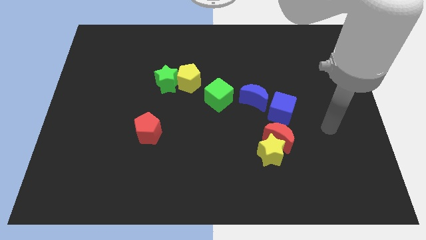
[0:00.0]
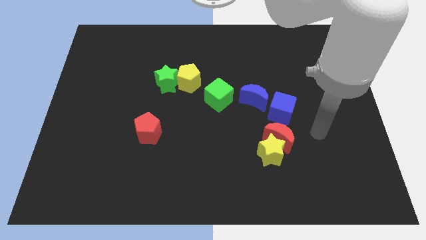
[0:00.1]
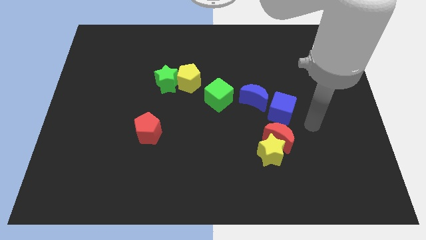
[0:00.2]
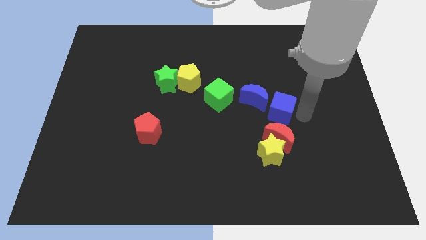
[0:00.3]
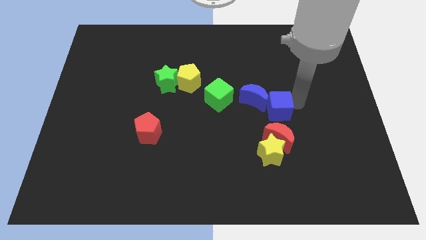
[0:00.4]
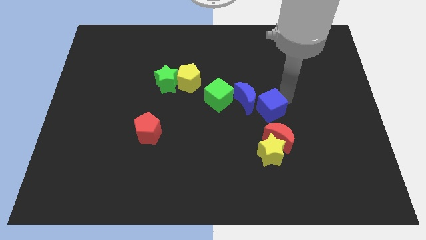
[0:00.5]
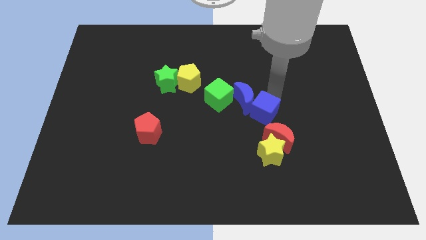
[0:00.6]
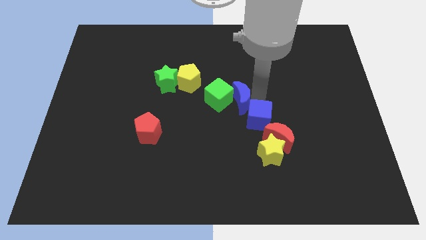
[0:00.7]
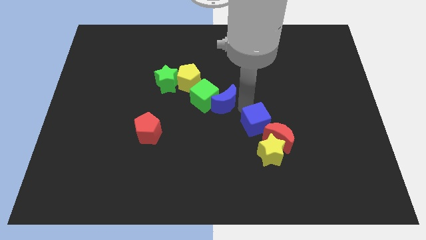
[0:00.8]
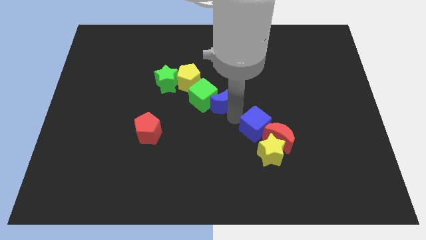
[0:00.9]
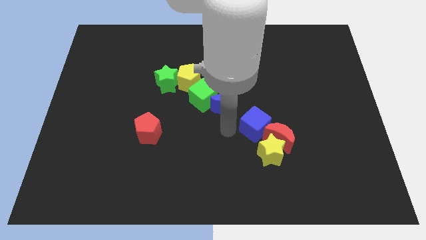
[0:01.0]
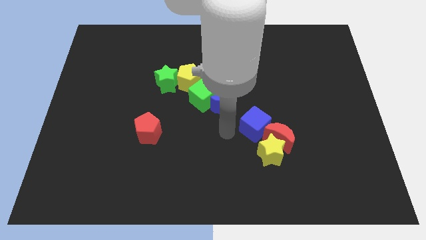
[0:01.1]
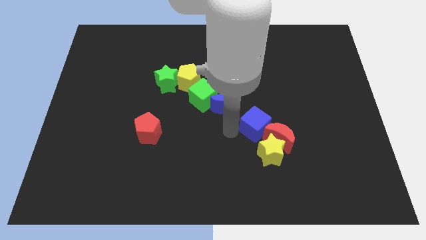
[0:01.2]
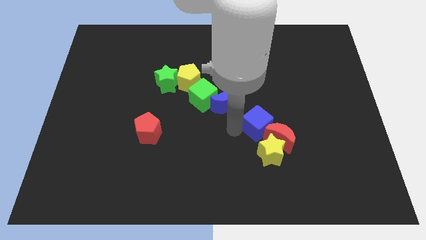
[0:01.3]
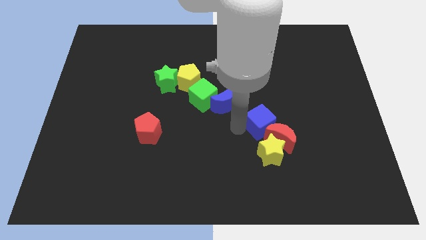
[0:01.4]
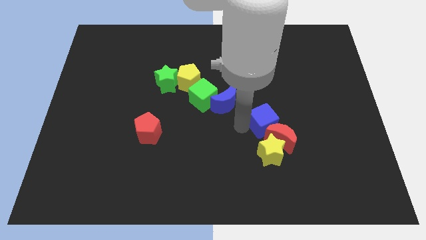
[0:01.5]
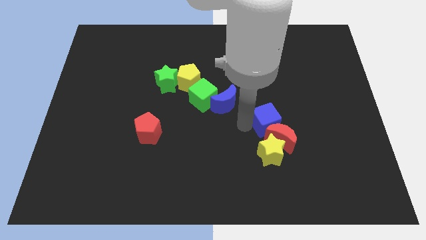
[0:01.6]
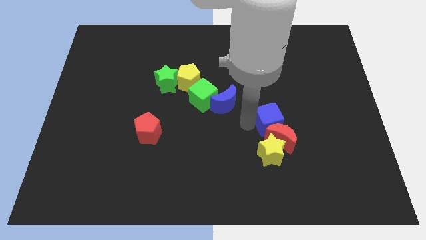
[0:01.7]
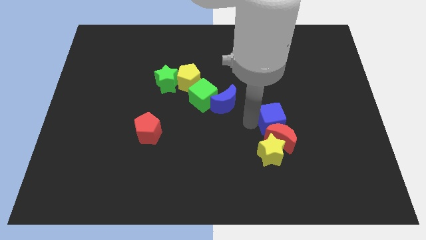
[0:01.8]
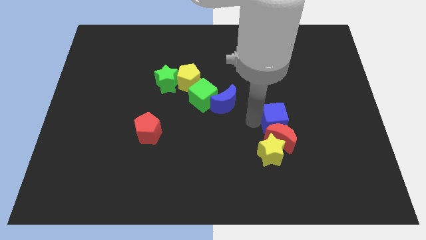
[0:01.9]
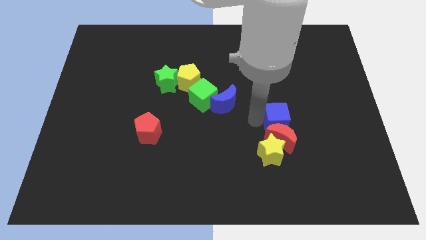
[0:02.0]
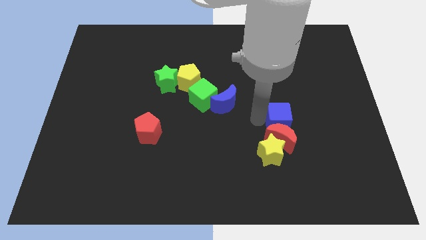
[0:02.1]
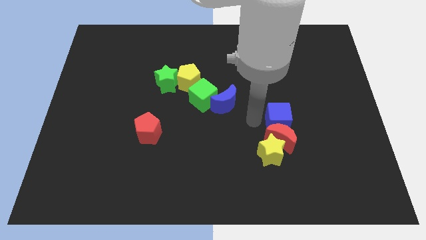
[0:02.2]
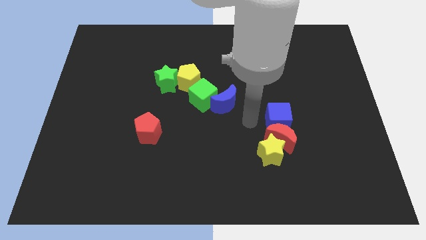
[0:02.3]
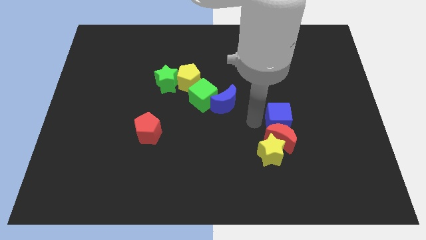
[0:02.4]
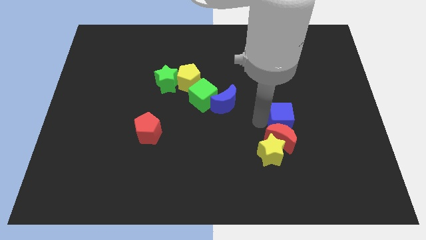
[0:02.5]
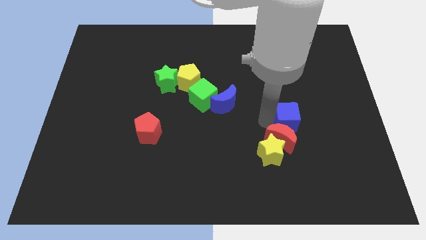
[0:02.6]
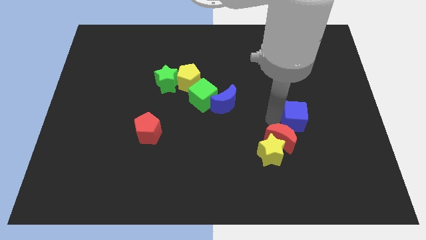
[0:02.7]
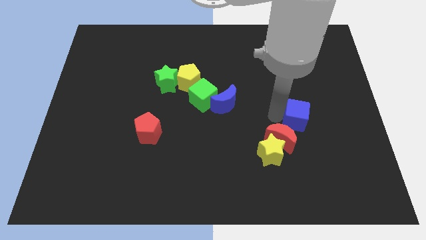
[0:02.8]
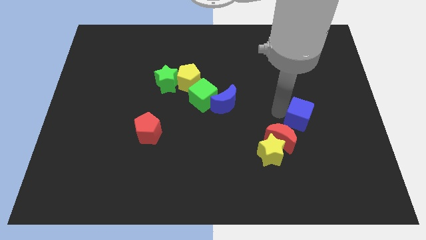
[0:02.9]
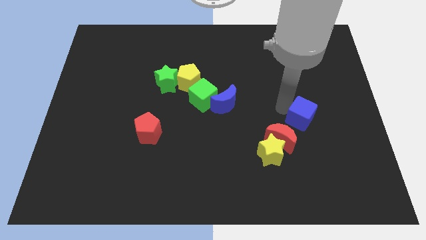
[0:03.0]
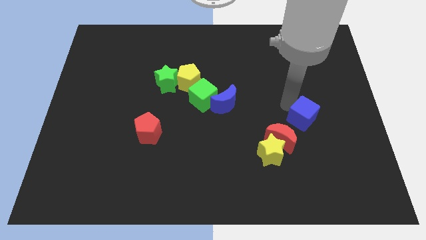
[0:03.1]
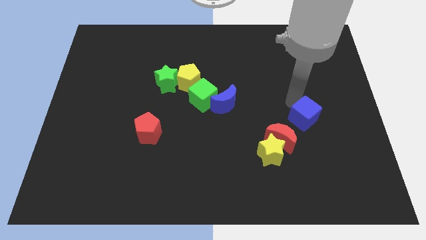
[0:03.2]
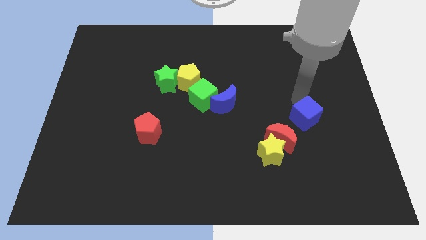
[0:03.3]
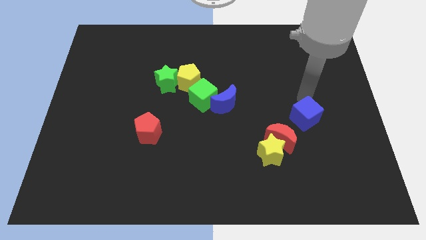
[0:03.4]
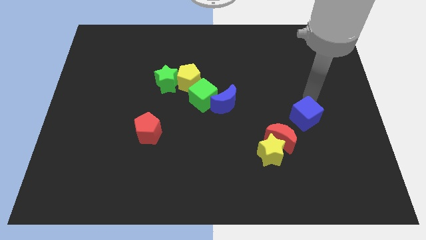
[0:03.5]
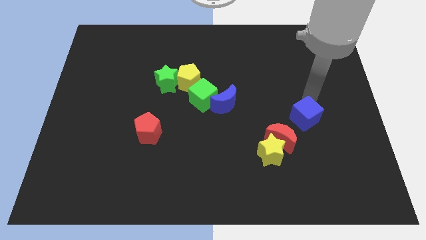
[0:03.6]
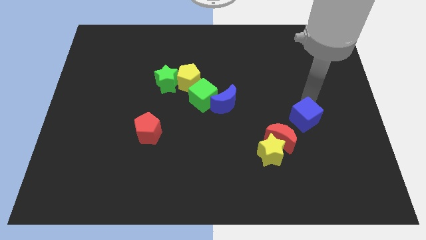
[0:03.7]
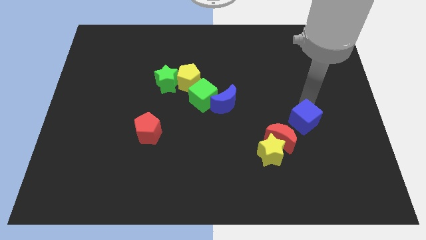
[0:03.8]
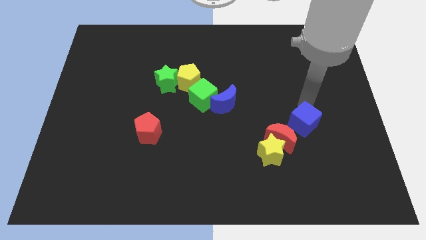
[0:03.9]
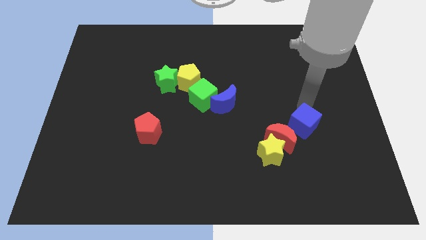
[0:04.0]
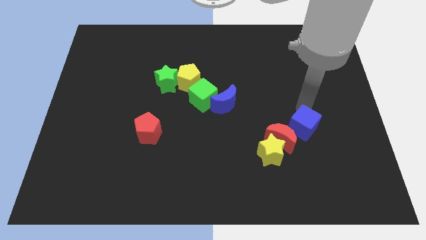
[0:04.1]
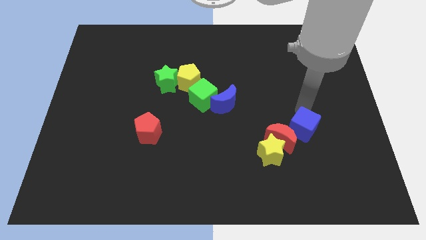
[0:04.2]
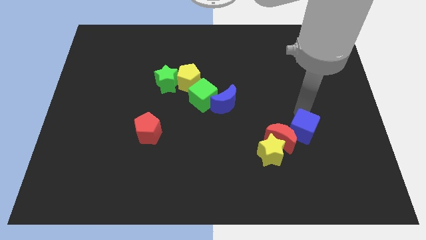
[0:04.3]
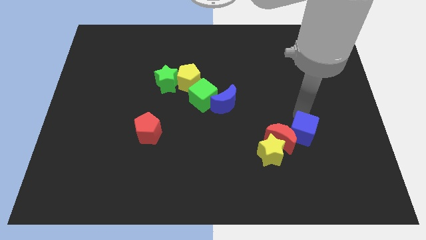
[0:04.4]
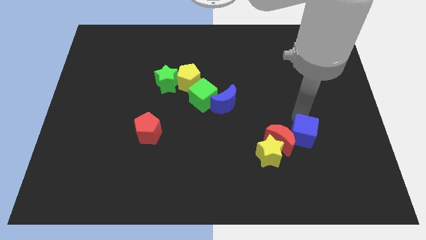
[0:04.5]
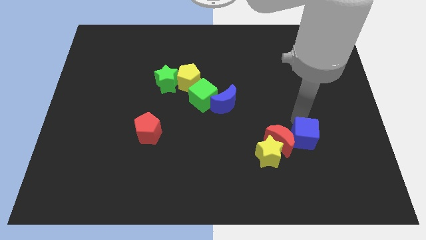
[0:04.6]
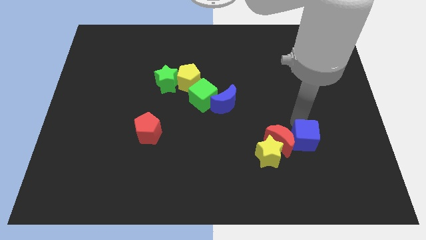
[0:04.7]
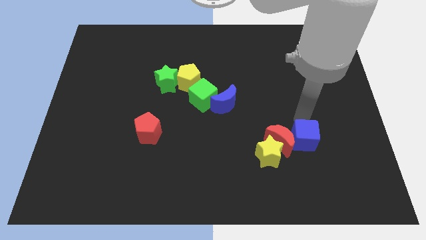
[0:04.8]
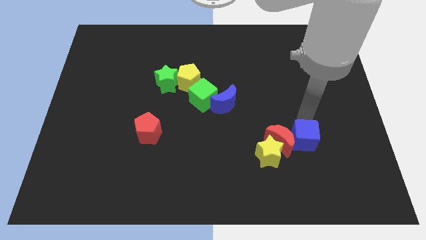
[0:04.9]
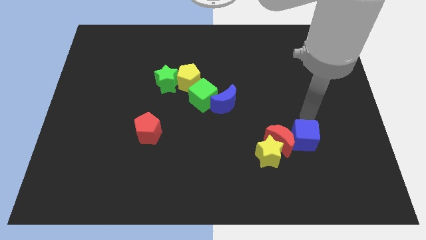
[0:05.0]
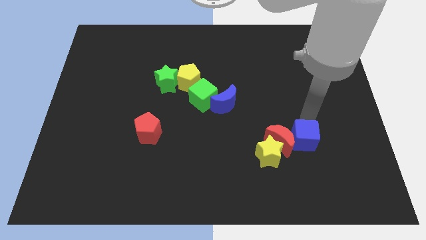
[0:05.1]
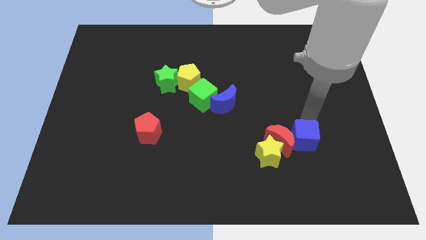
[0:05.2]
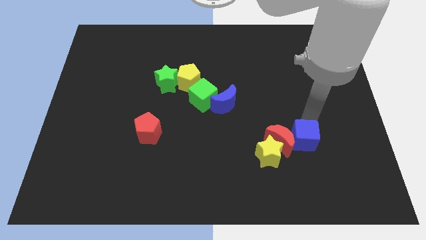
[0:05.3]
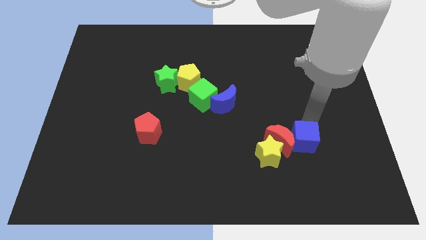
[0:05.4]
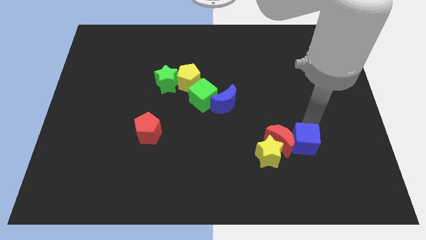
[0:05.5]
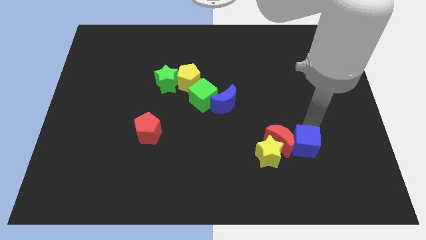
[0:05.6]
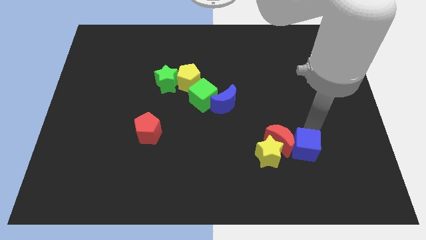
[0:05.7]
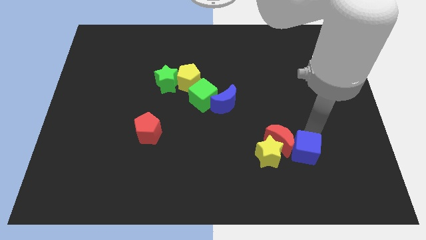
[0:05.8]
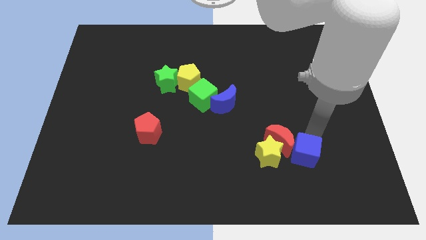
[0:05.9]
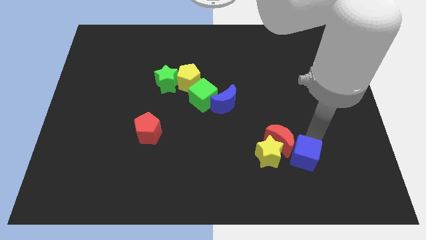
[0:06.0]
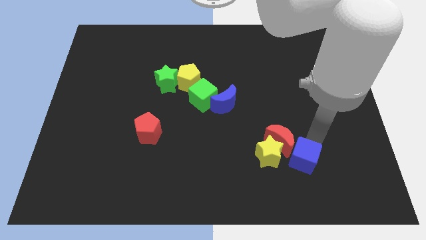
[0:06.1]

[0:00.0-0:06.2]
move the blue cube to the bottom right side of the yellow star

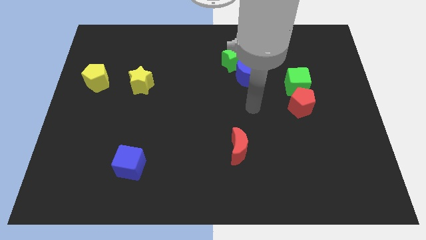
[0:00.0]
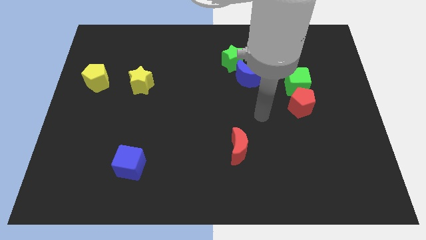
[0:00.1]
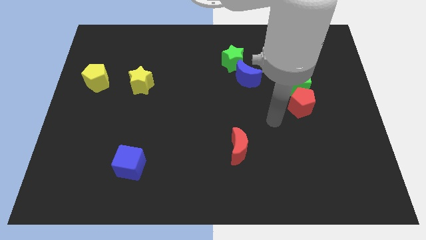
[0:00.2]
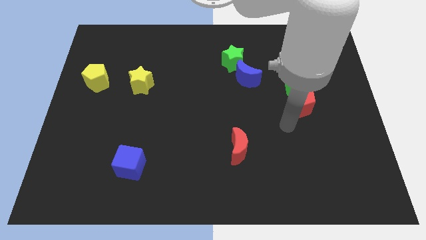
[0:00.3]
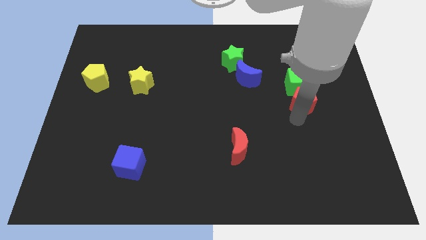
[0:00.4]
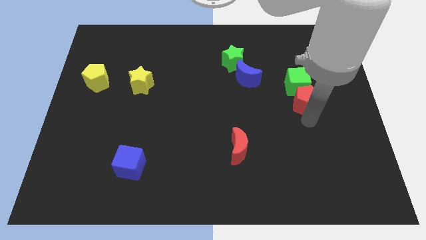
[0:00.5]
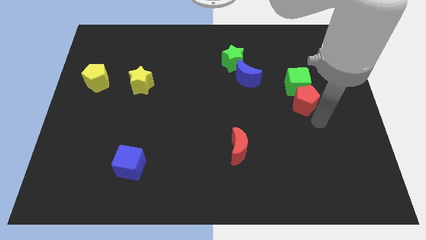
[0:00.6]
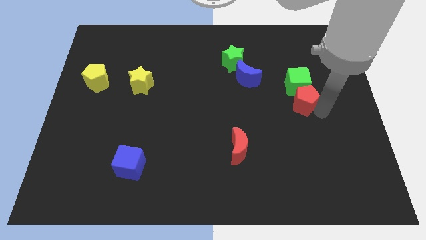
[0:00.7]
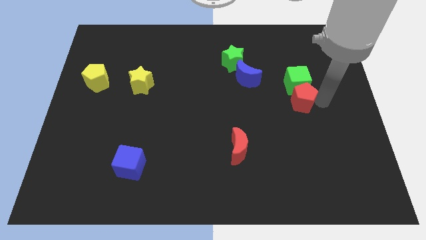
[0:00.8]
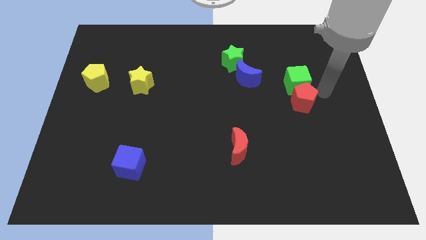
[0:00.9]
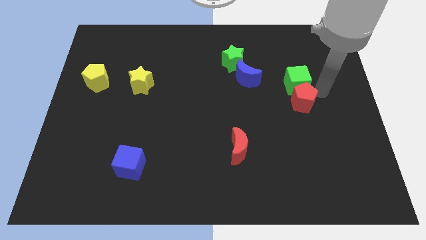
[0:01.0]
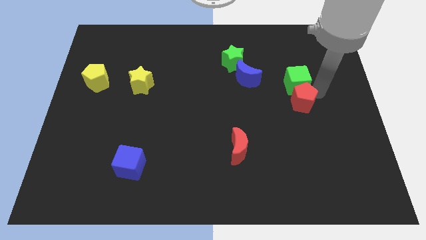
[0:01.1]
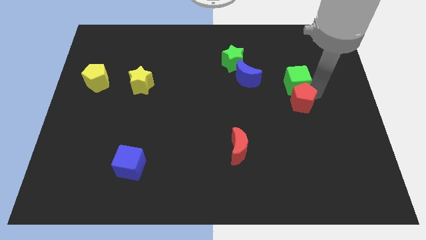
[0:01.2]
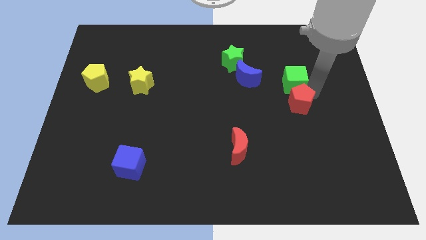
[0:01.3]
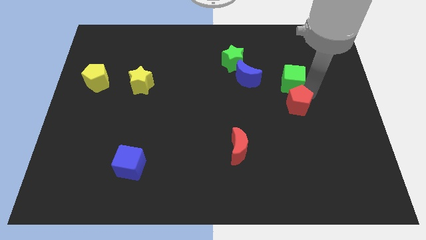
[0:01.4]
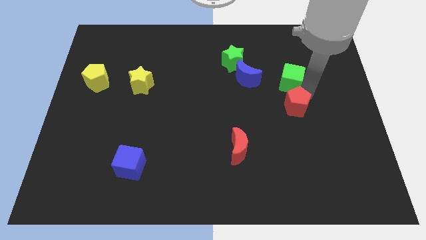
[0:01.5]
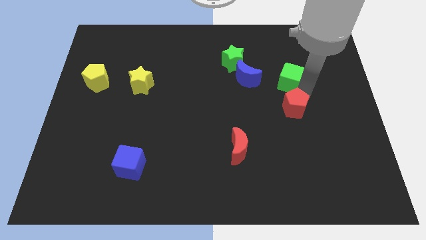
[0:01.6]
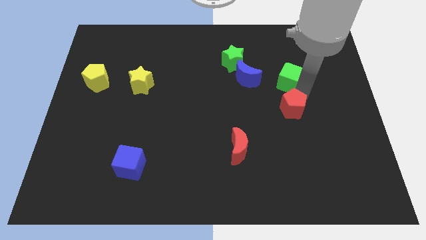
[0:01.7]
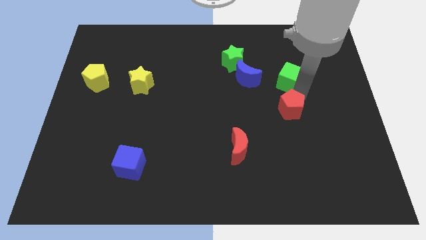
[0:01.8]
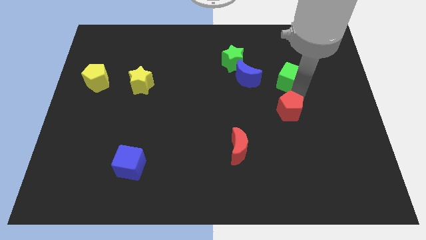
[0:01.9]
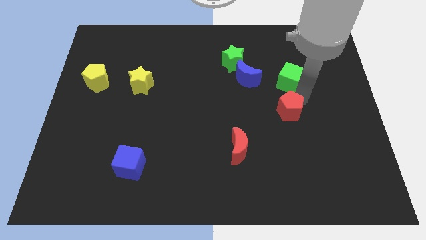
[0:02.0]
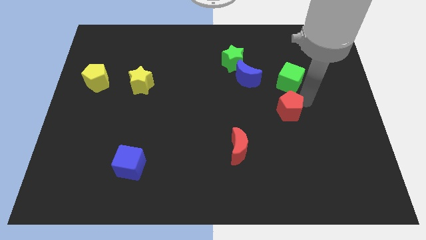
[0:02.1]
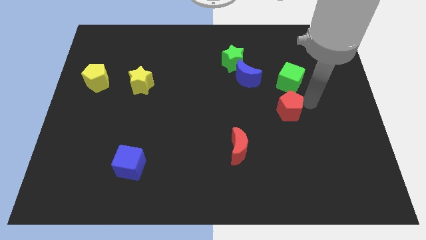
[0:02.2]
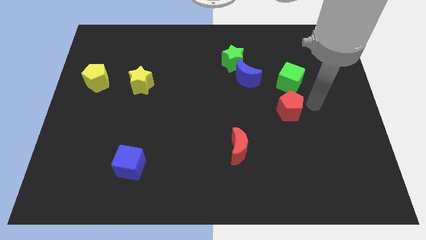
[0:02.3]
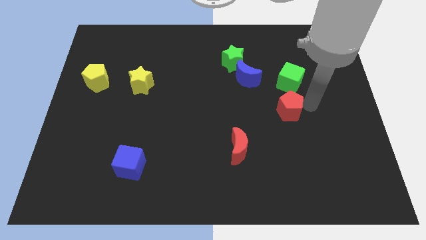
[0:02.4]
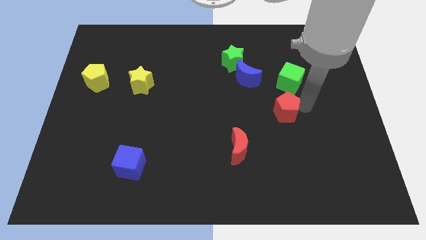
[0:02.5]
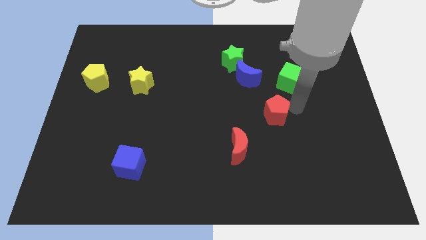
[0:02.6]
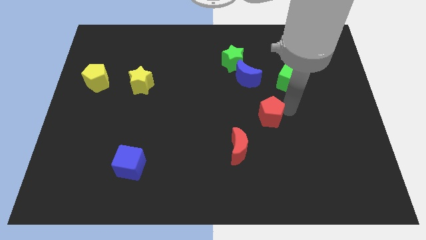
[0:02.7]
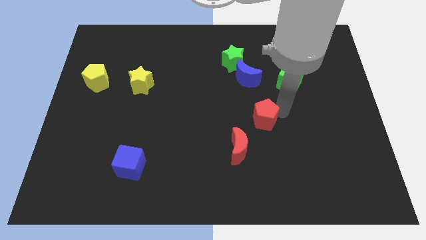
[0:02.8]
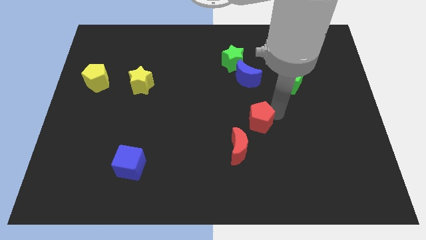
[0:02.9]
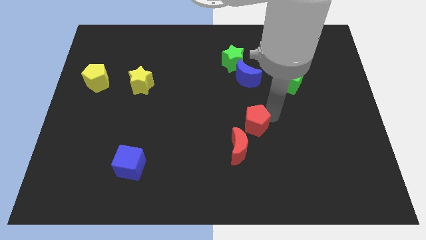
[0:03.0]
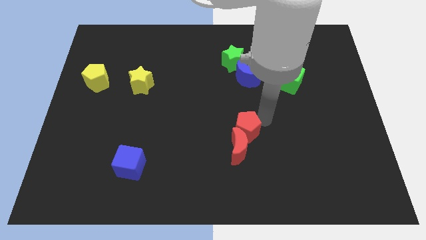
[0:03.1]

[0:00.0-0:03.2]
push the red pentagon diagonally up and to the left of the red moon
